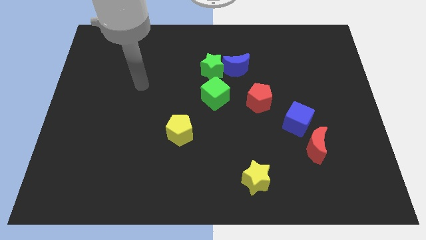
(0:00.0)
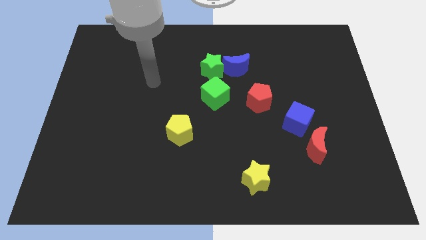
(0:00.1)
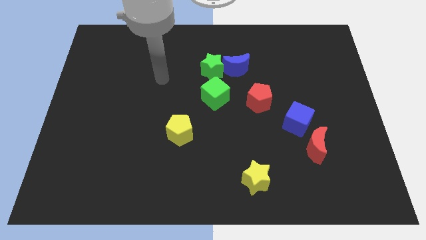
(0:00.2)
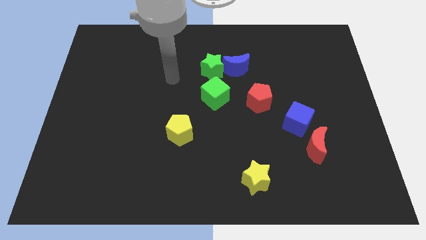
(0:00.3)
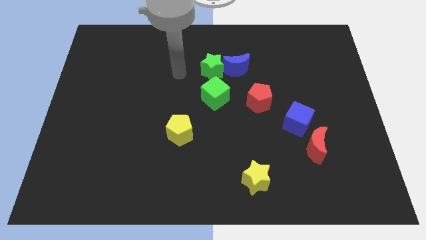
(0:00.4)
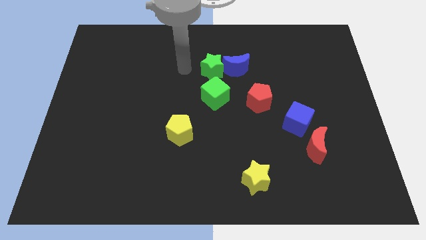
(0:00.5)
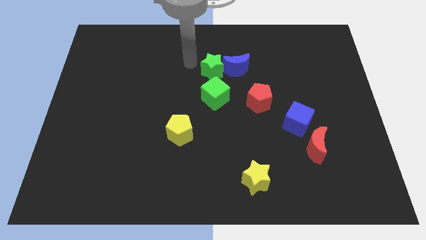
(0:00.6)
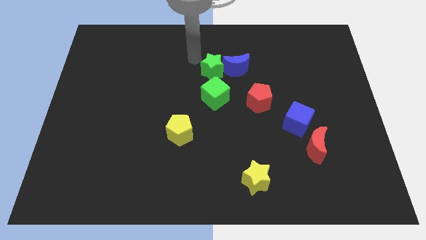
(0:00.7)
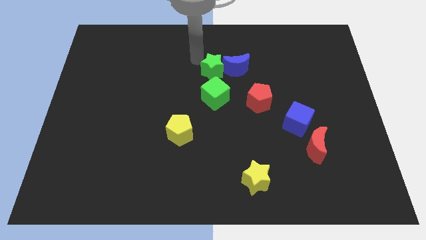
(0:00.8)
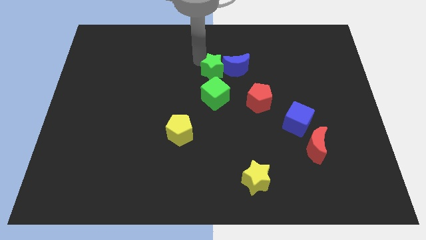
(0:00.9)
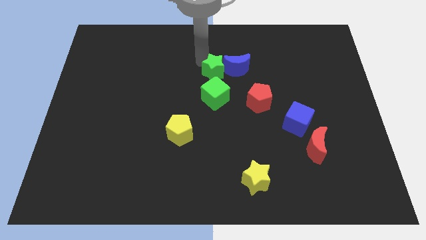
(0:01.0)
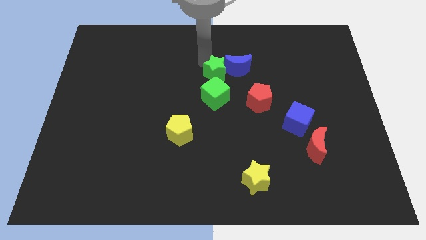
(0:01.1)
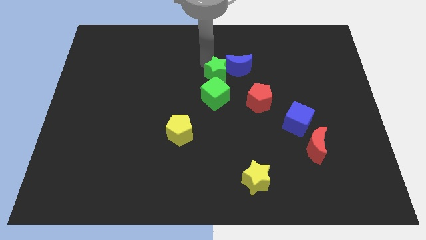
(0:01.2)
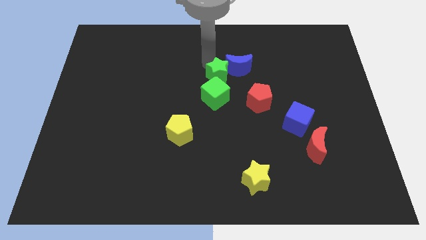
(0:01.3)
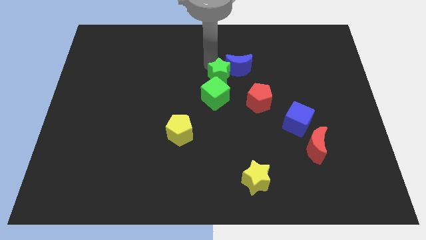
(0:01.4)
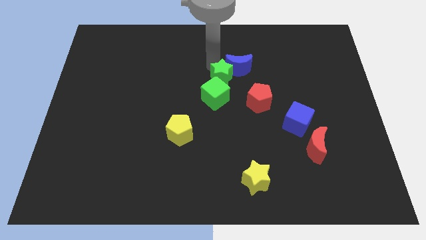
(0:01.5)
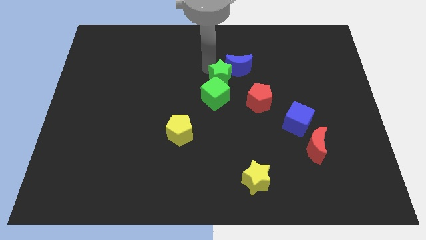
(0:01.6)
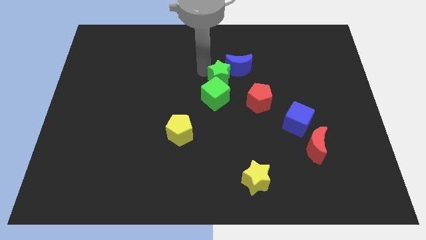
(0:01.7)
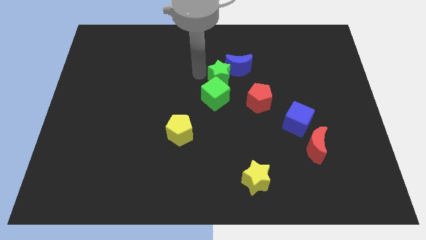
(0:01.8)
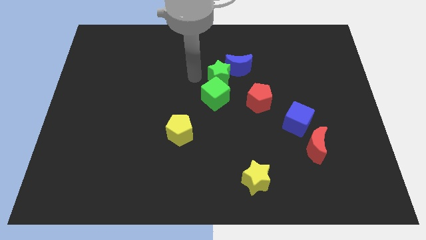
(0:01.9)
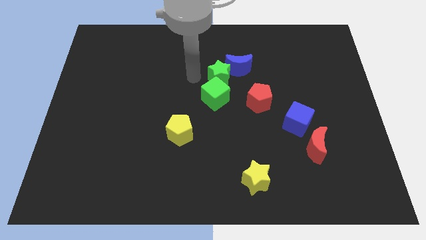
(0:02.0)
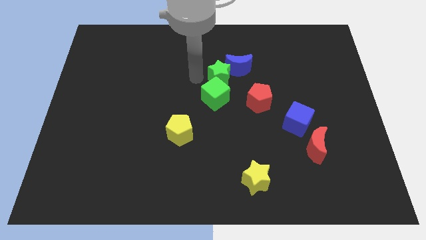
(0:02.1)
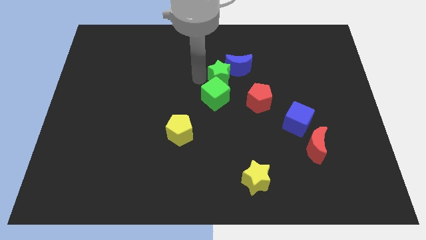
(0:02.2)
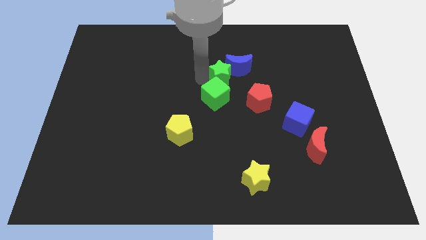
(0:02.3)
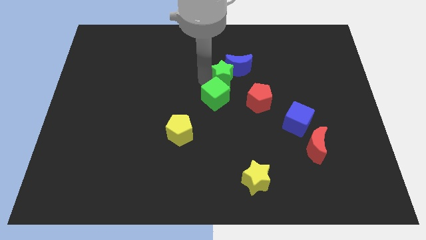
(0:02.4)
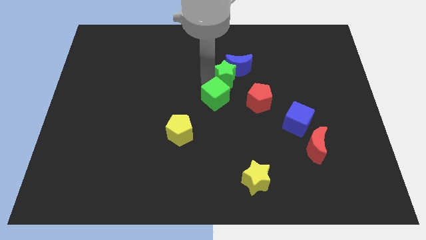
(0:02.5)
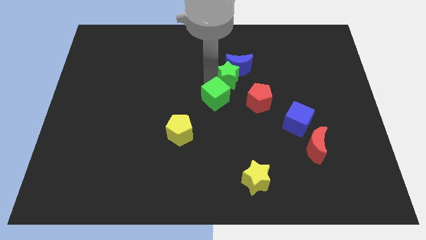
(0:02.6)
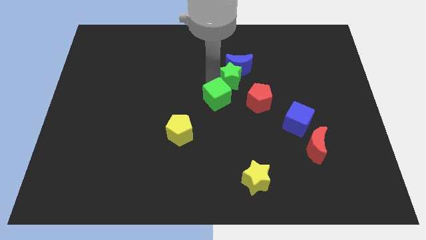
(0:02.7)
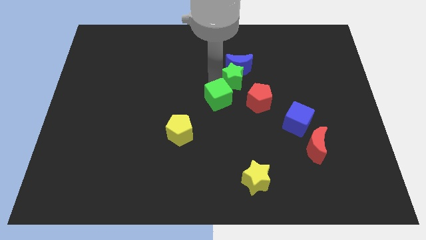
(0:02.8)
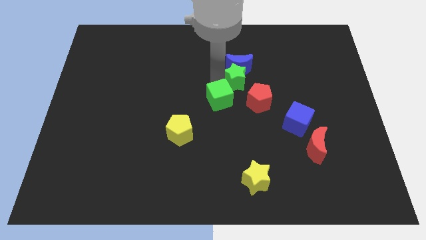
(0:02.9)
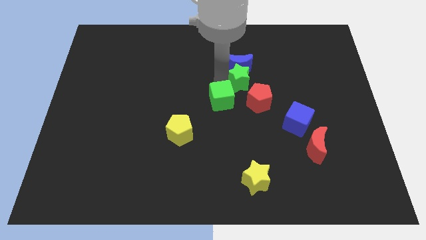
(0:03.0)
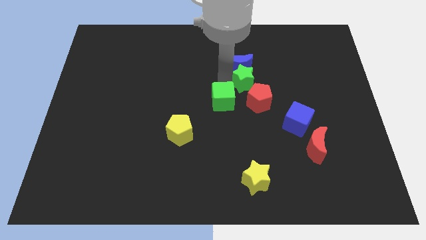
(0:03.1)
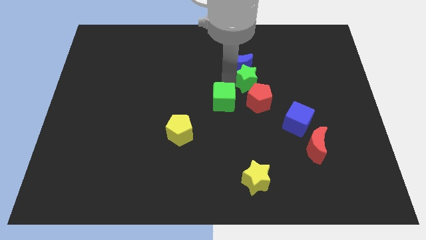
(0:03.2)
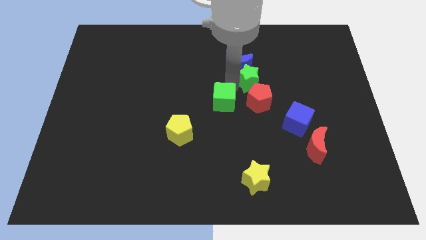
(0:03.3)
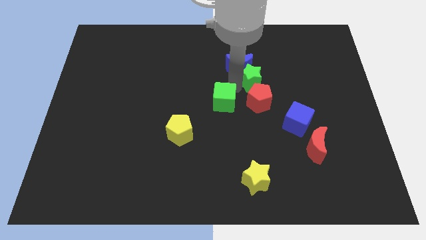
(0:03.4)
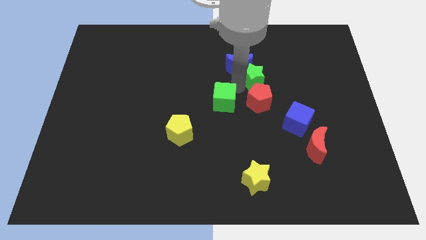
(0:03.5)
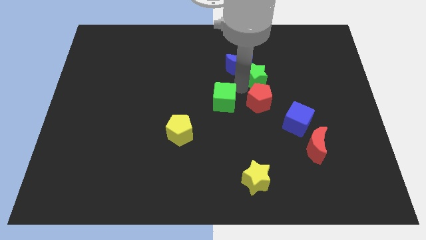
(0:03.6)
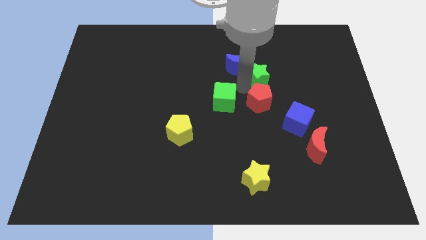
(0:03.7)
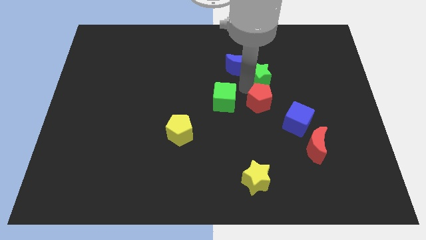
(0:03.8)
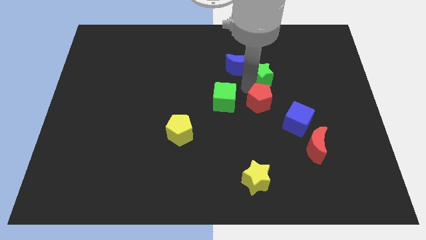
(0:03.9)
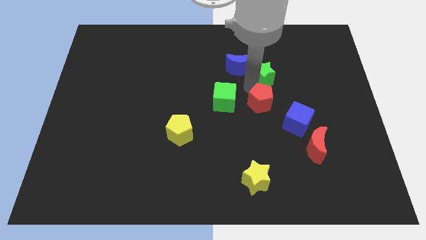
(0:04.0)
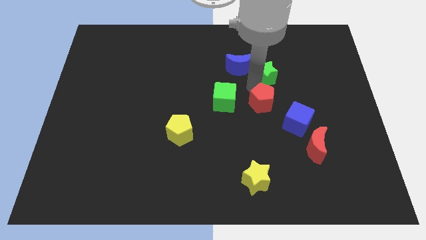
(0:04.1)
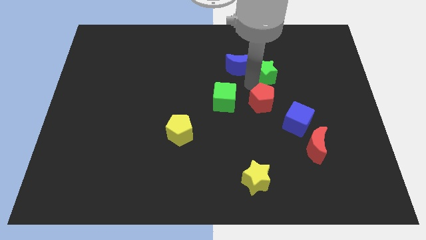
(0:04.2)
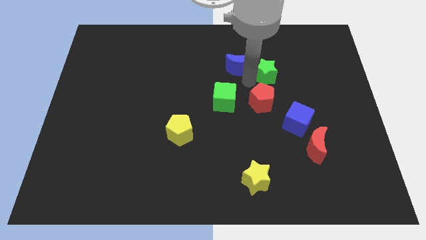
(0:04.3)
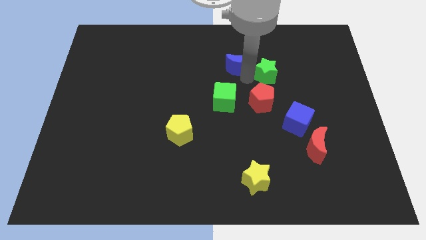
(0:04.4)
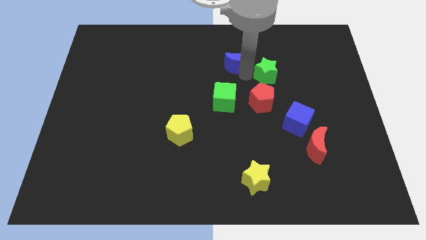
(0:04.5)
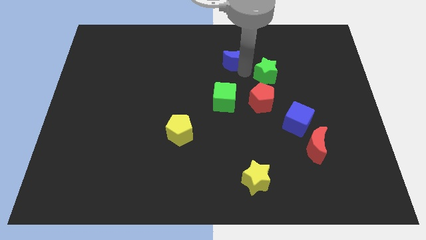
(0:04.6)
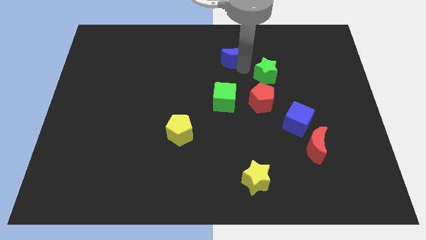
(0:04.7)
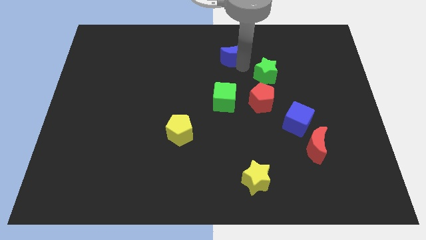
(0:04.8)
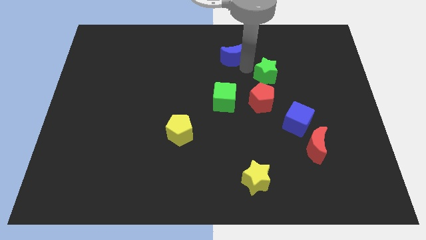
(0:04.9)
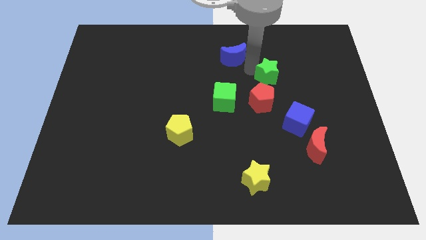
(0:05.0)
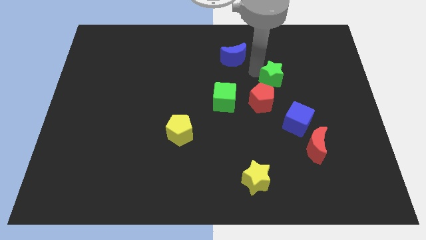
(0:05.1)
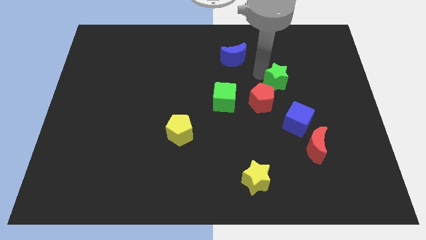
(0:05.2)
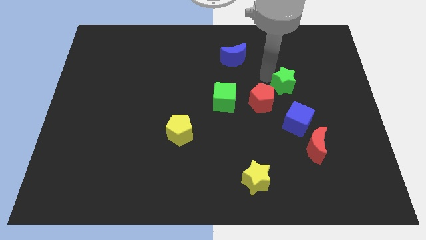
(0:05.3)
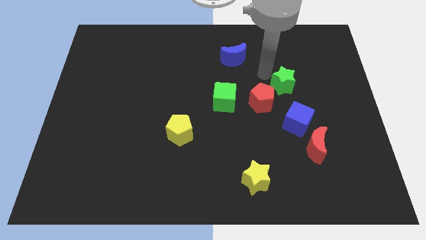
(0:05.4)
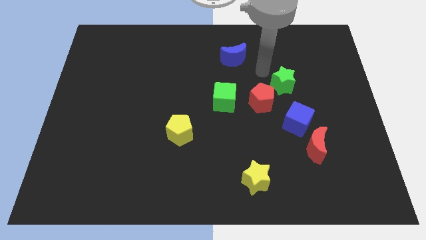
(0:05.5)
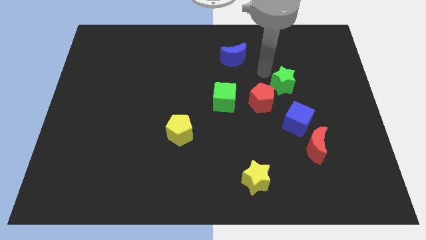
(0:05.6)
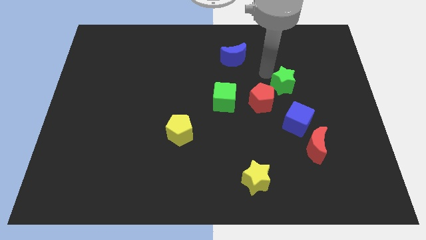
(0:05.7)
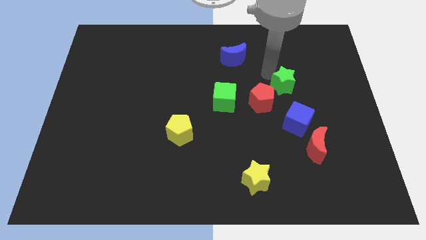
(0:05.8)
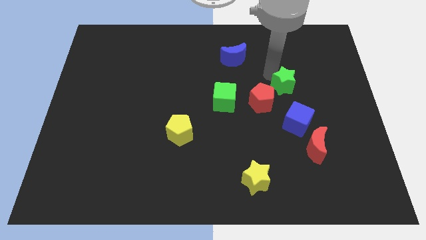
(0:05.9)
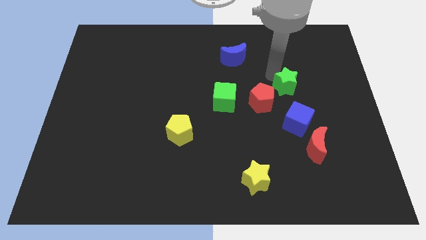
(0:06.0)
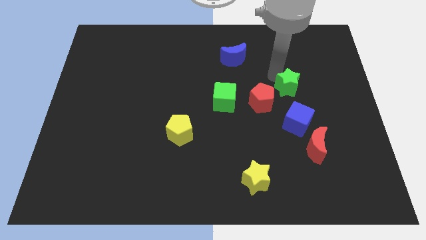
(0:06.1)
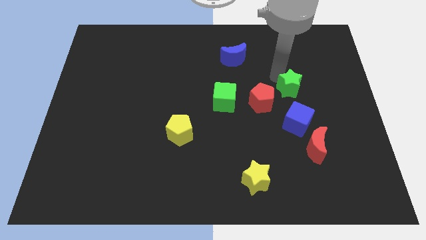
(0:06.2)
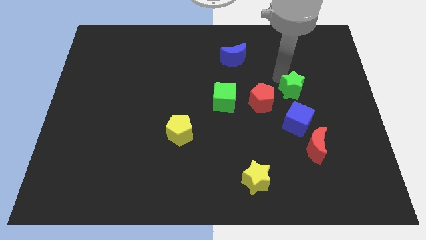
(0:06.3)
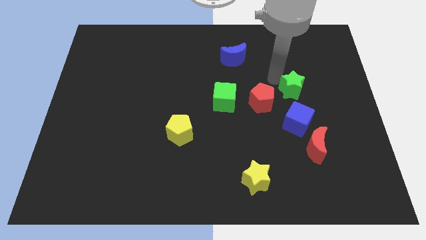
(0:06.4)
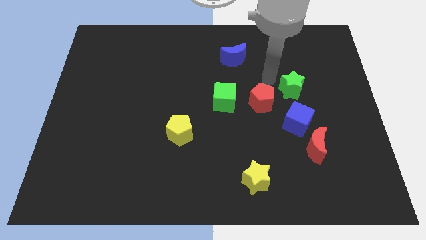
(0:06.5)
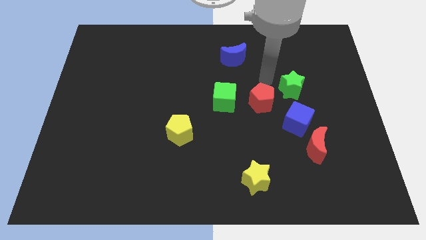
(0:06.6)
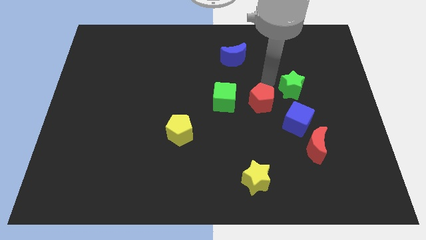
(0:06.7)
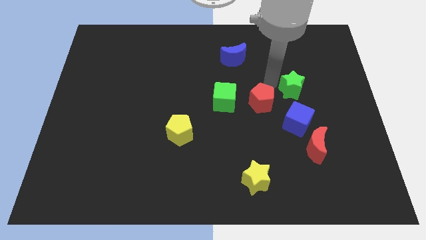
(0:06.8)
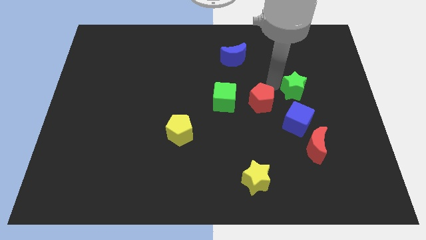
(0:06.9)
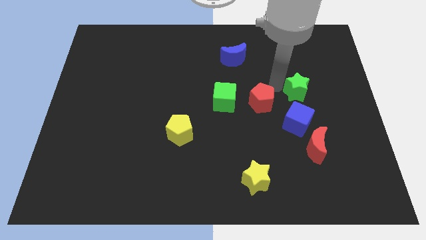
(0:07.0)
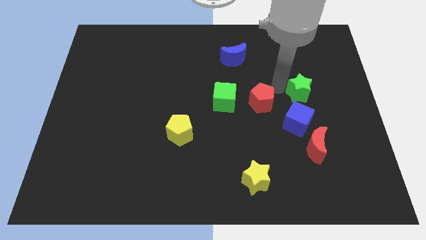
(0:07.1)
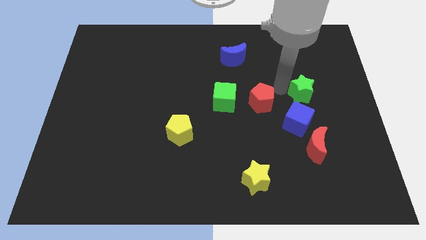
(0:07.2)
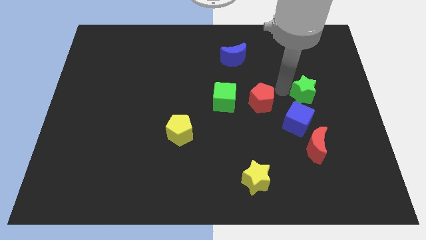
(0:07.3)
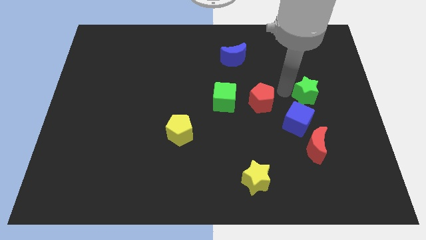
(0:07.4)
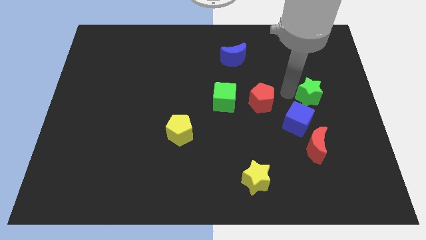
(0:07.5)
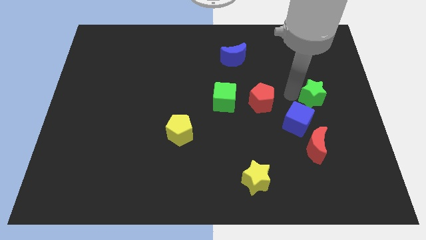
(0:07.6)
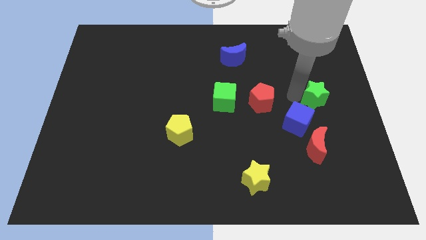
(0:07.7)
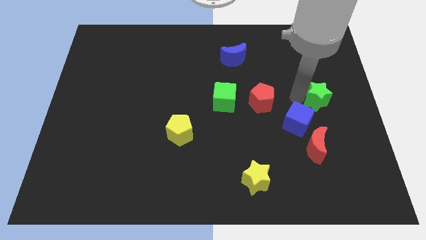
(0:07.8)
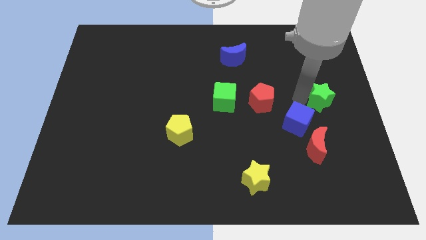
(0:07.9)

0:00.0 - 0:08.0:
move the green star to the center right
